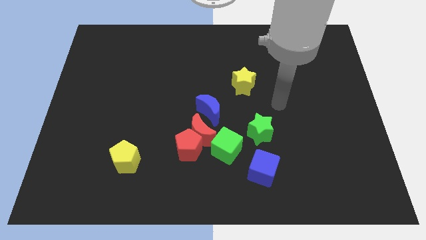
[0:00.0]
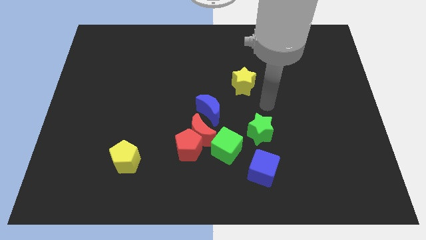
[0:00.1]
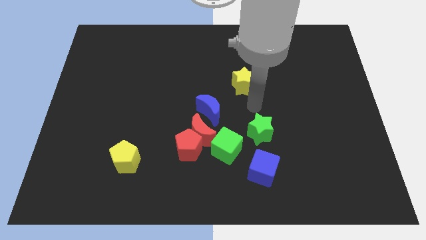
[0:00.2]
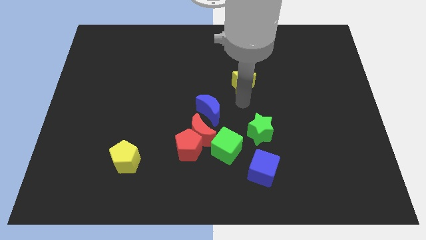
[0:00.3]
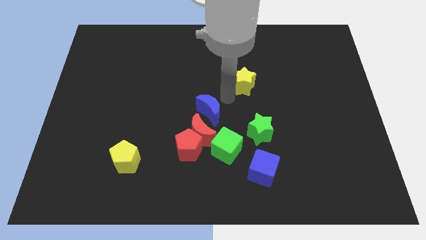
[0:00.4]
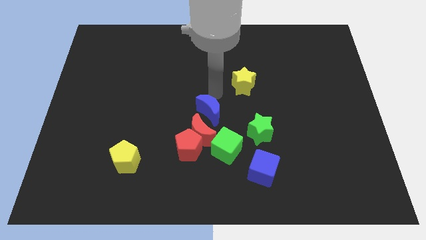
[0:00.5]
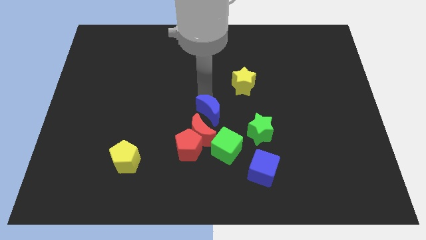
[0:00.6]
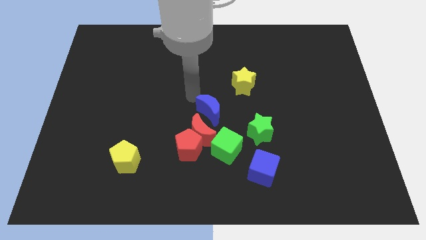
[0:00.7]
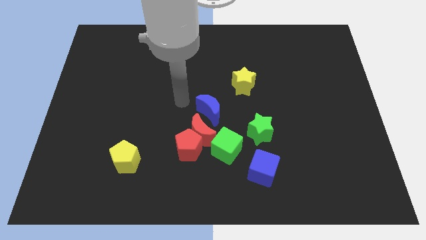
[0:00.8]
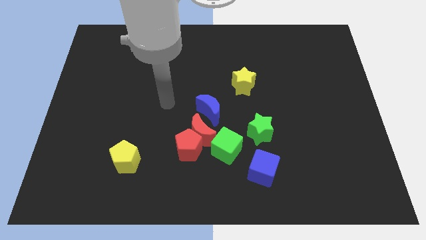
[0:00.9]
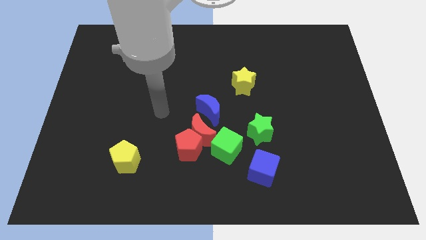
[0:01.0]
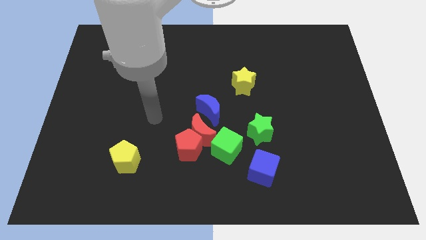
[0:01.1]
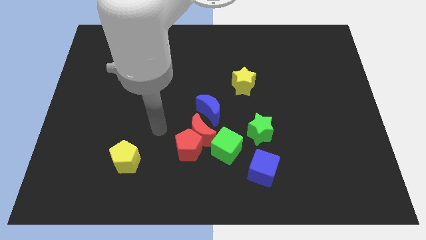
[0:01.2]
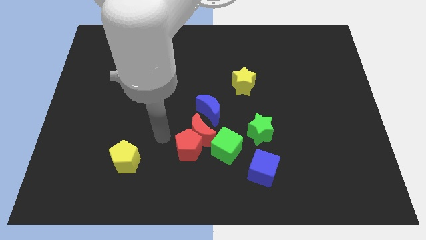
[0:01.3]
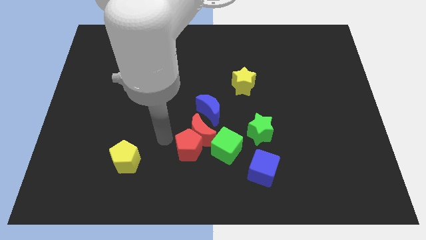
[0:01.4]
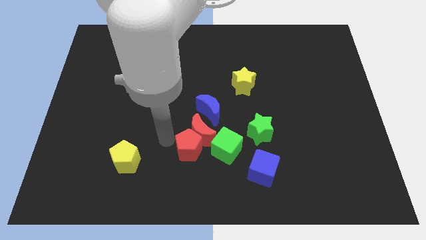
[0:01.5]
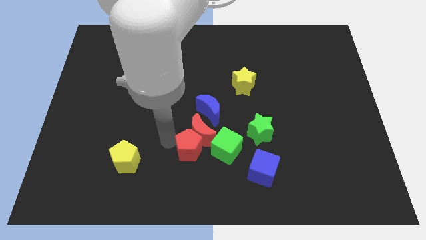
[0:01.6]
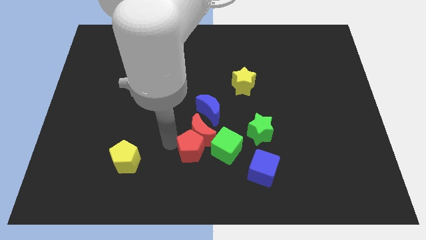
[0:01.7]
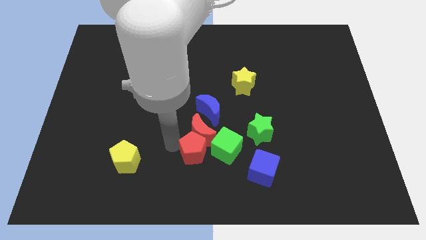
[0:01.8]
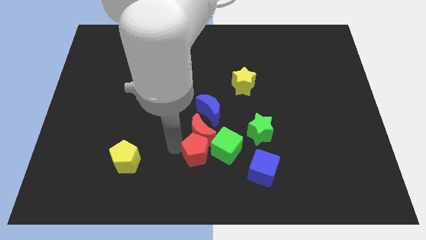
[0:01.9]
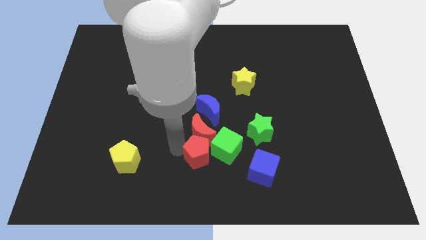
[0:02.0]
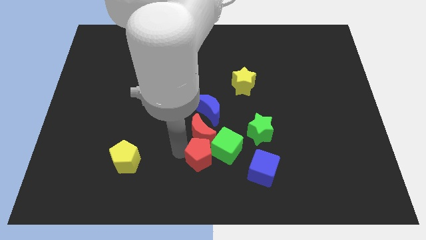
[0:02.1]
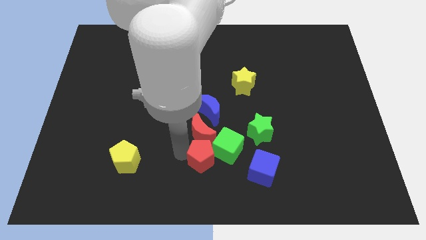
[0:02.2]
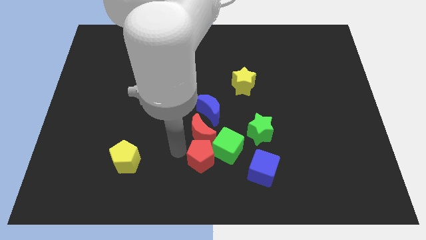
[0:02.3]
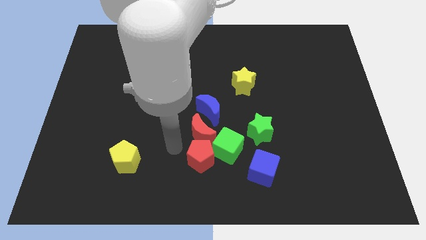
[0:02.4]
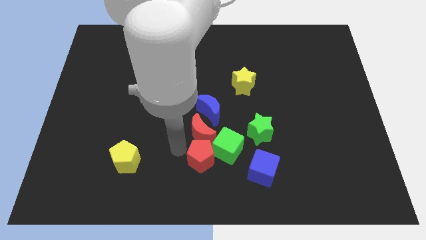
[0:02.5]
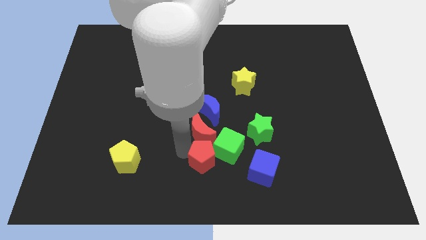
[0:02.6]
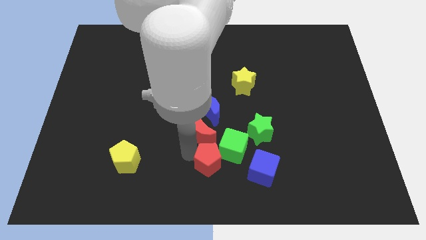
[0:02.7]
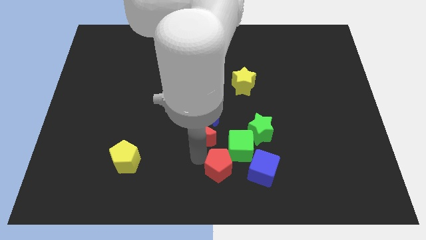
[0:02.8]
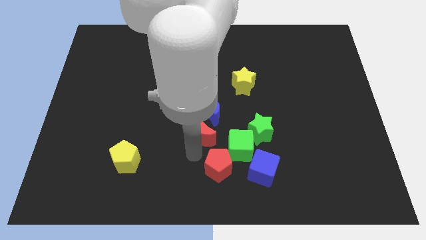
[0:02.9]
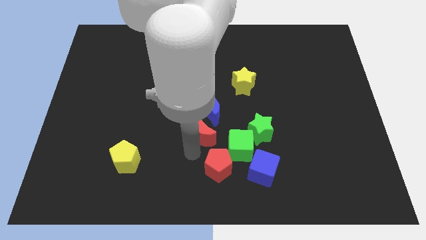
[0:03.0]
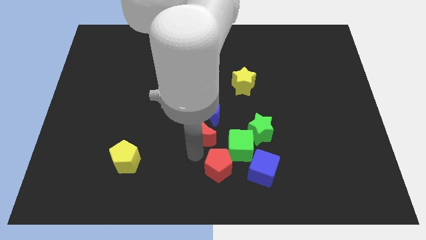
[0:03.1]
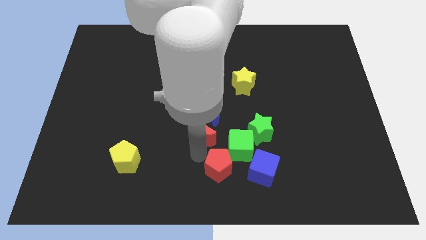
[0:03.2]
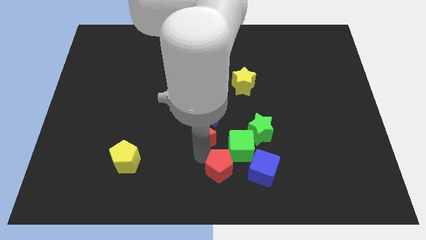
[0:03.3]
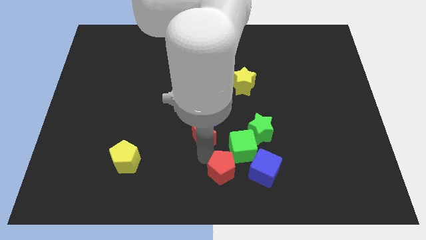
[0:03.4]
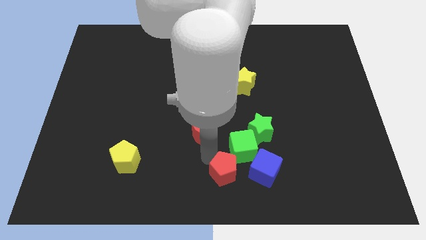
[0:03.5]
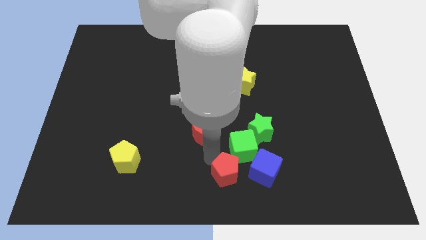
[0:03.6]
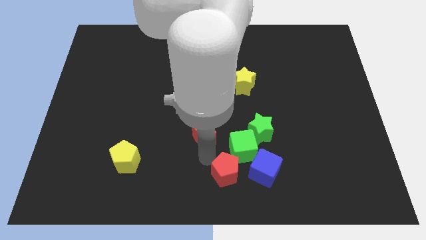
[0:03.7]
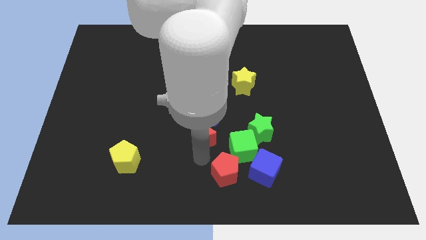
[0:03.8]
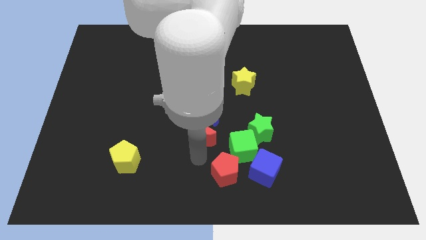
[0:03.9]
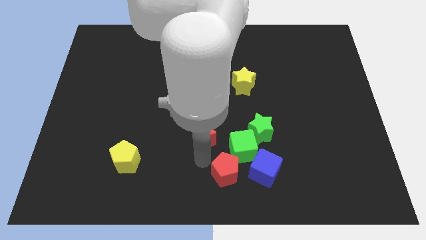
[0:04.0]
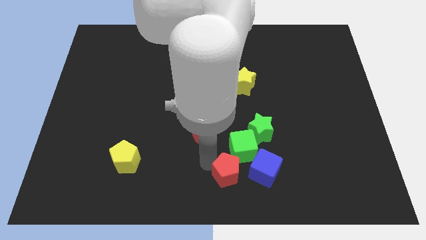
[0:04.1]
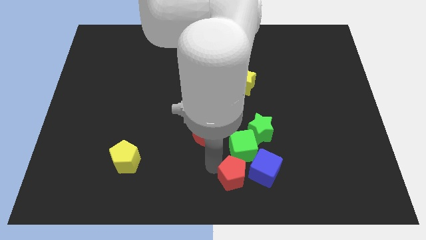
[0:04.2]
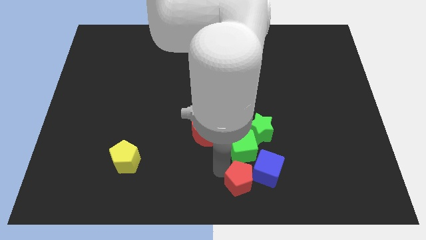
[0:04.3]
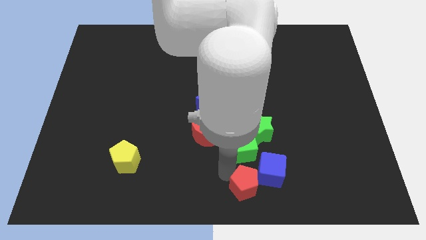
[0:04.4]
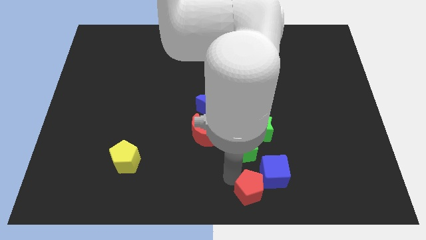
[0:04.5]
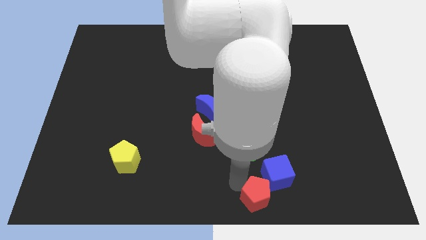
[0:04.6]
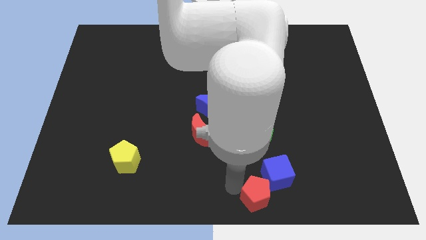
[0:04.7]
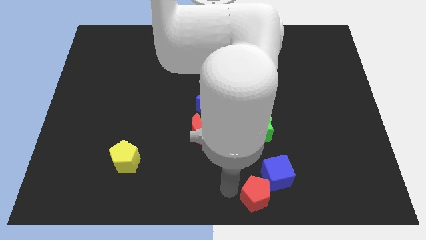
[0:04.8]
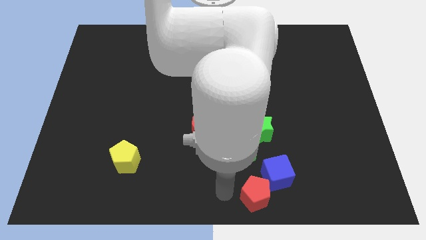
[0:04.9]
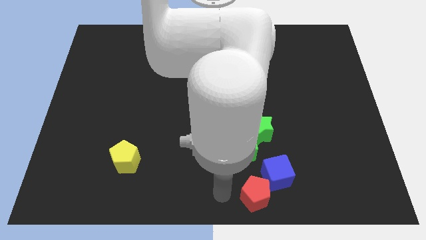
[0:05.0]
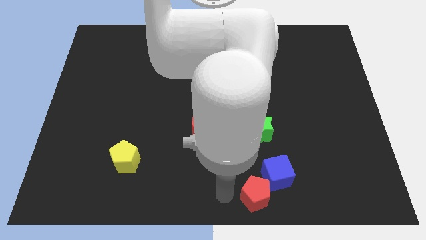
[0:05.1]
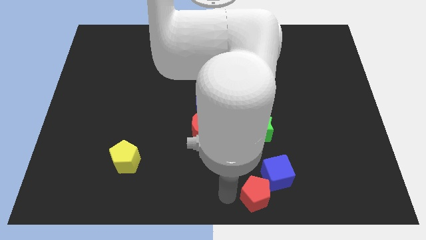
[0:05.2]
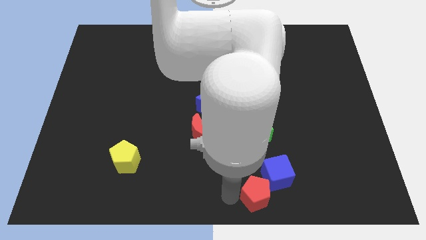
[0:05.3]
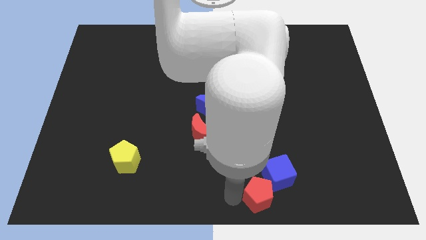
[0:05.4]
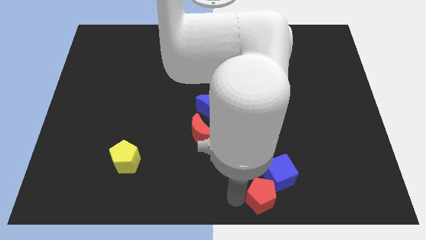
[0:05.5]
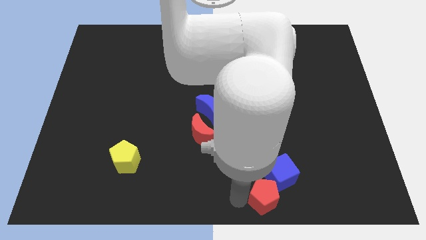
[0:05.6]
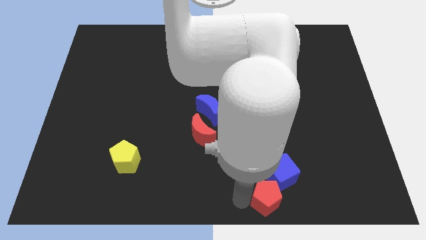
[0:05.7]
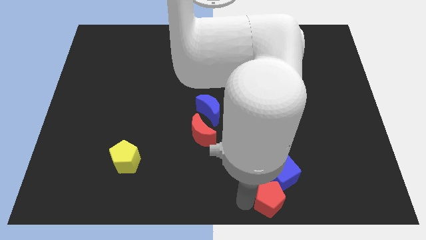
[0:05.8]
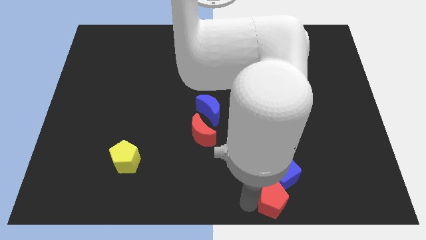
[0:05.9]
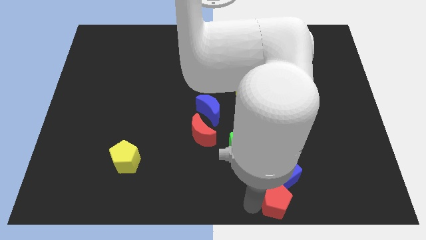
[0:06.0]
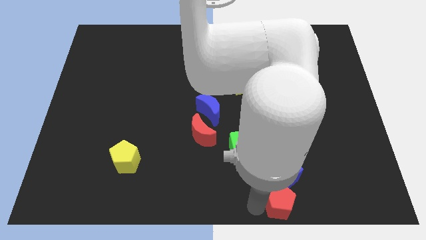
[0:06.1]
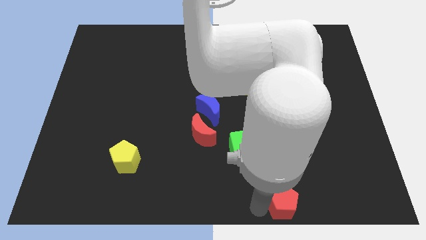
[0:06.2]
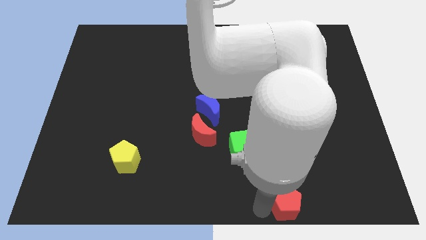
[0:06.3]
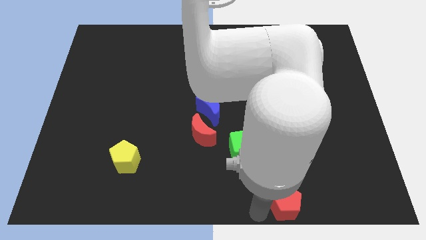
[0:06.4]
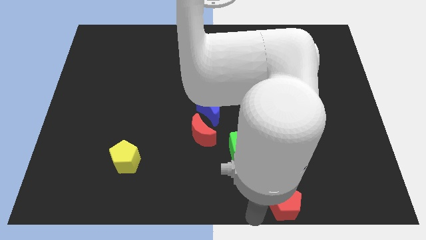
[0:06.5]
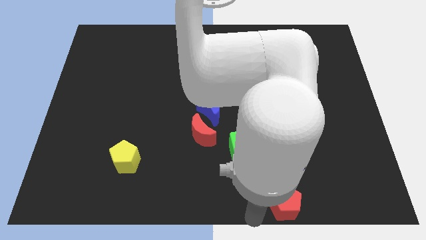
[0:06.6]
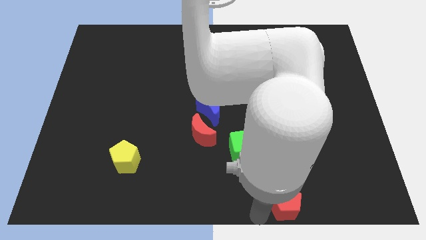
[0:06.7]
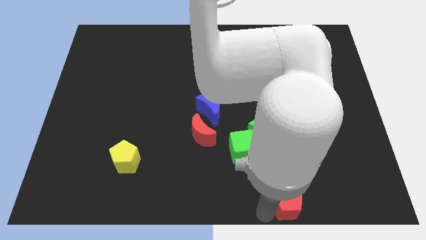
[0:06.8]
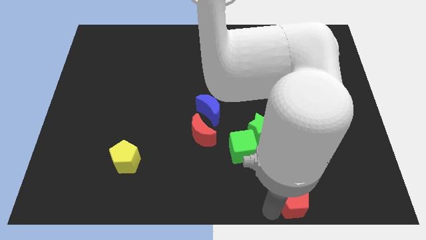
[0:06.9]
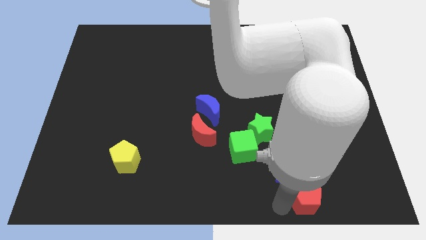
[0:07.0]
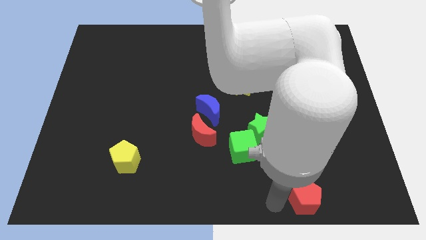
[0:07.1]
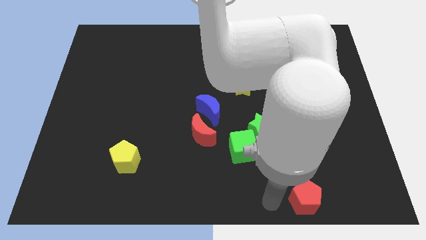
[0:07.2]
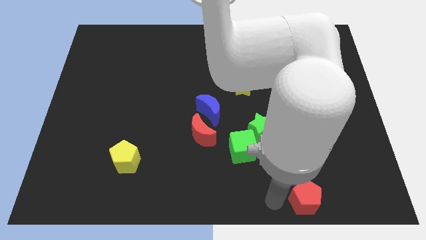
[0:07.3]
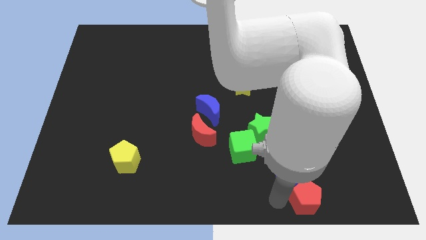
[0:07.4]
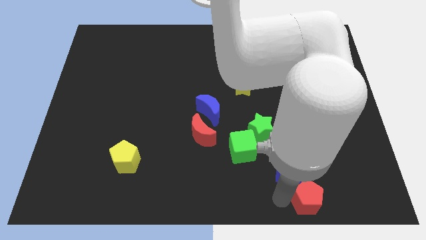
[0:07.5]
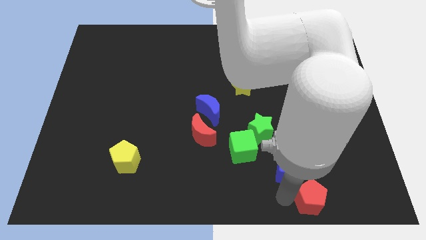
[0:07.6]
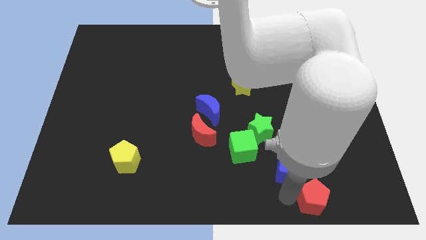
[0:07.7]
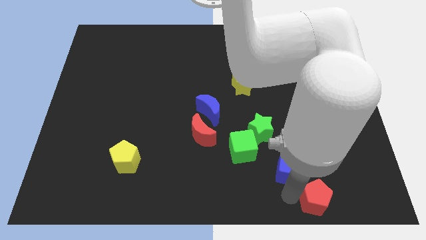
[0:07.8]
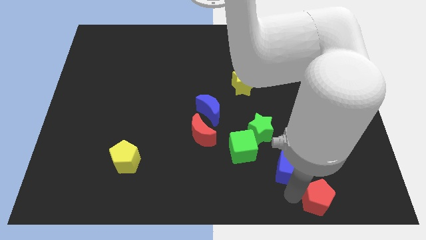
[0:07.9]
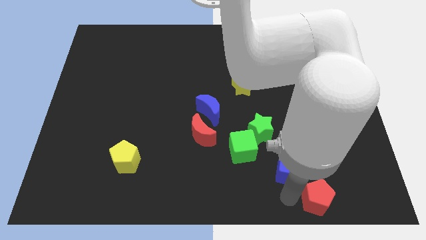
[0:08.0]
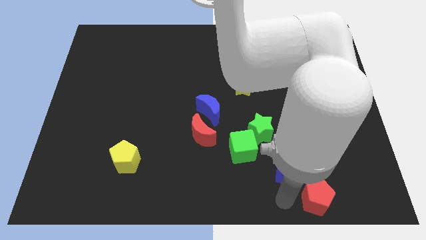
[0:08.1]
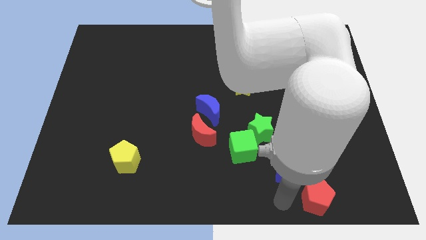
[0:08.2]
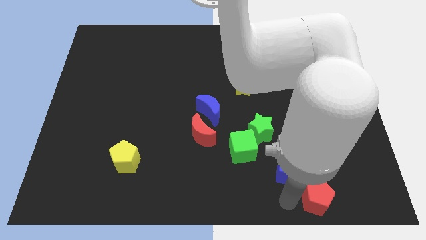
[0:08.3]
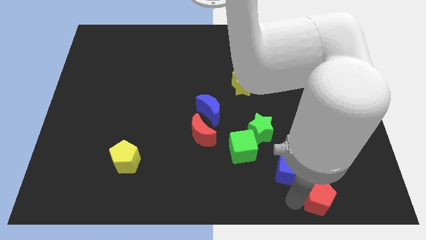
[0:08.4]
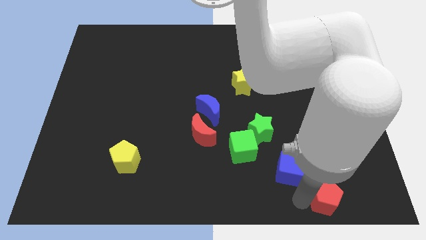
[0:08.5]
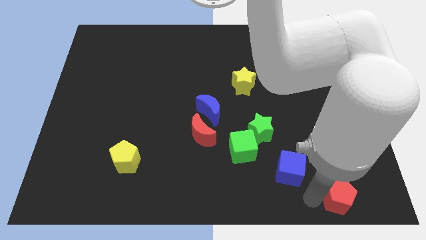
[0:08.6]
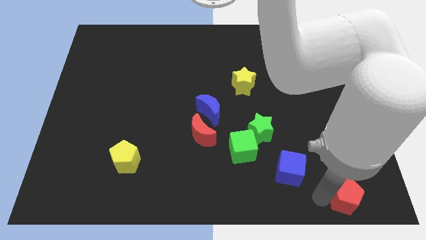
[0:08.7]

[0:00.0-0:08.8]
move the red pentagon to the bottom right
